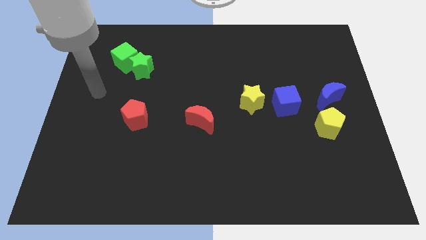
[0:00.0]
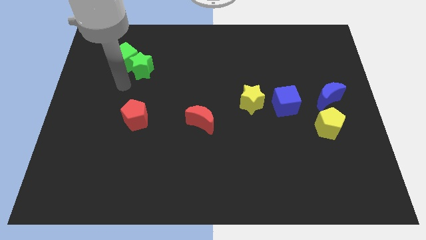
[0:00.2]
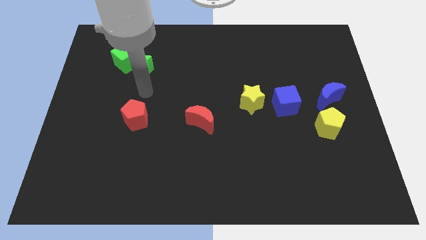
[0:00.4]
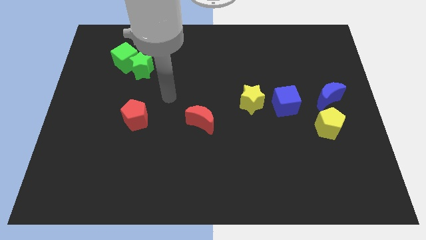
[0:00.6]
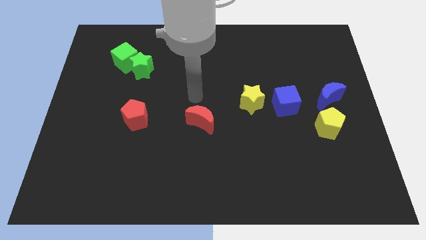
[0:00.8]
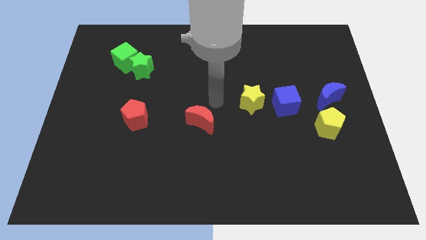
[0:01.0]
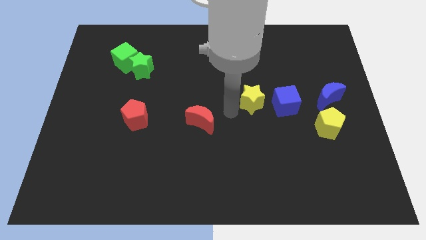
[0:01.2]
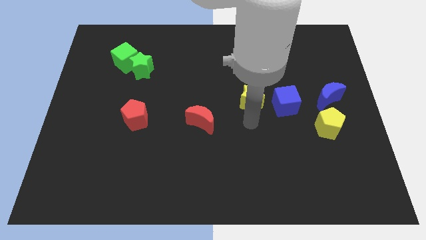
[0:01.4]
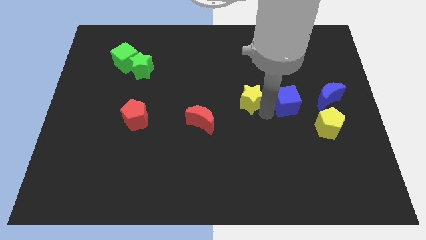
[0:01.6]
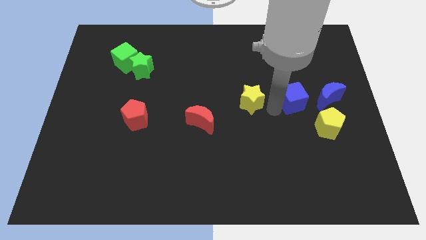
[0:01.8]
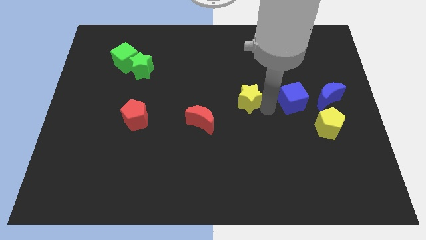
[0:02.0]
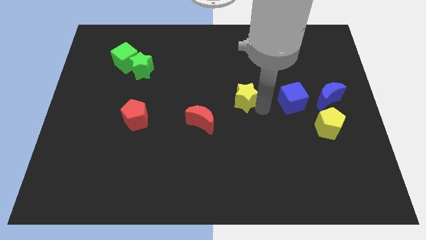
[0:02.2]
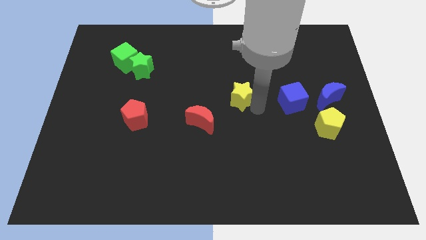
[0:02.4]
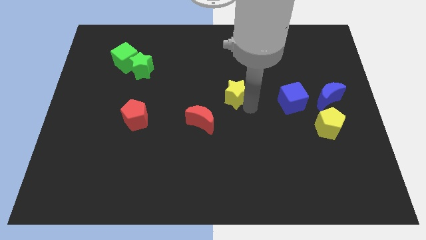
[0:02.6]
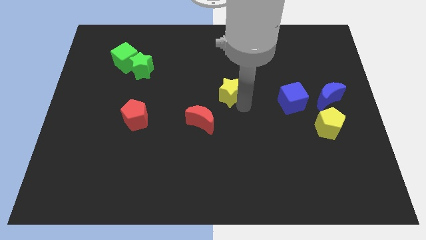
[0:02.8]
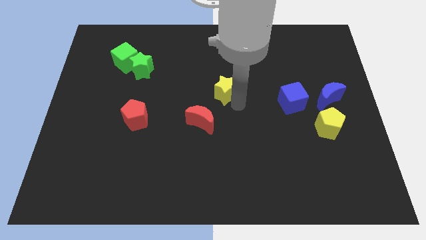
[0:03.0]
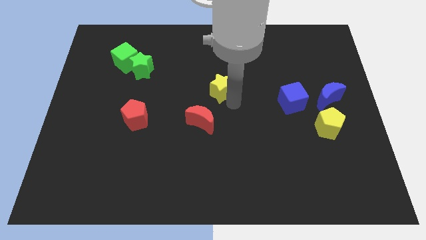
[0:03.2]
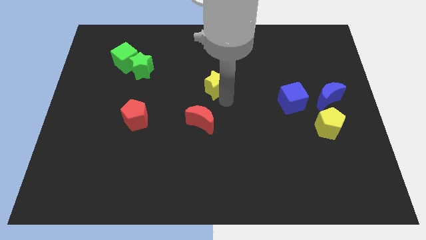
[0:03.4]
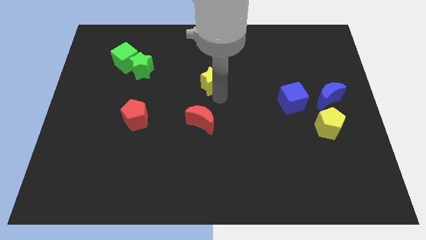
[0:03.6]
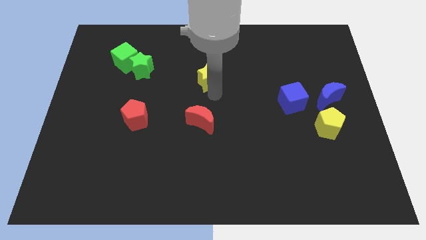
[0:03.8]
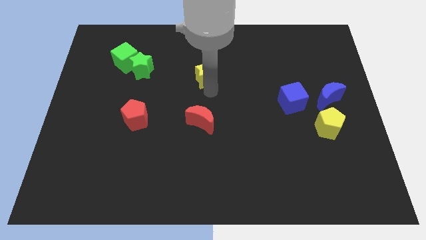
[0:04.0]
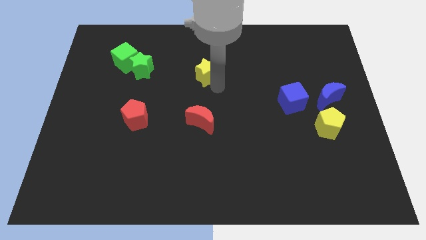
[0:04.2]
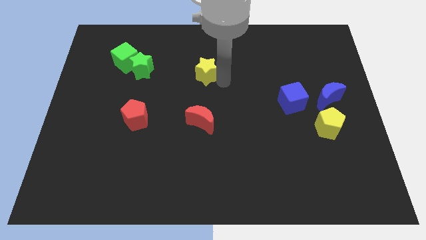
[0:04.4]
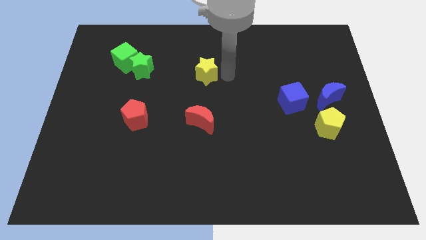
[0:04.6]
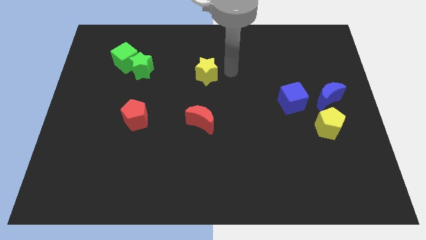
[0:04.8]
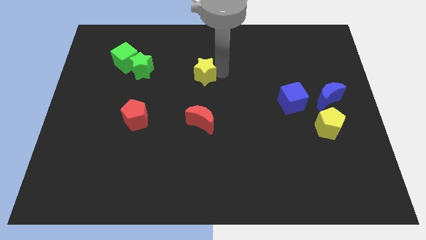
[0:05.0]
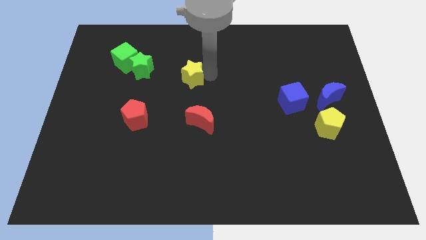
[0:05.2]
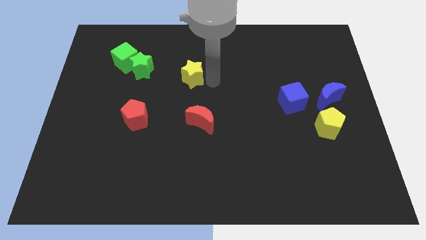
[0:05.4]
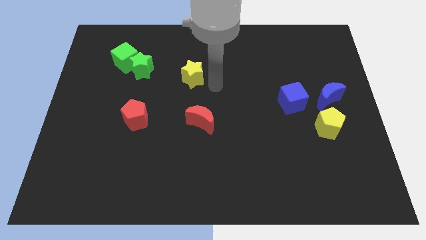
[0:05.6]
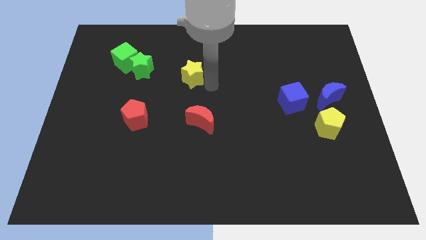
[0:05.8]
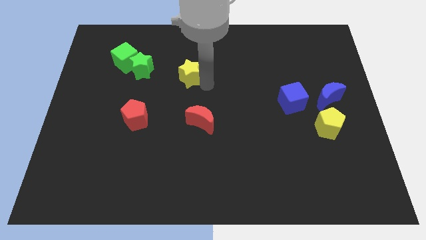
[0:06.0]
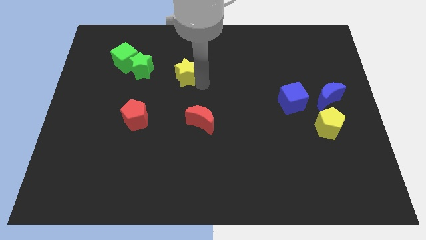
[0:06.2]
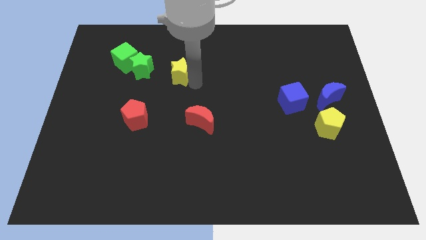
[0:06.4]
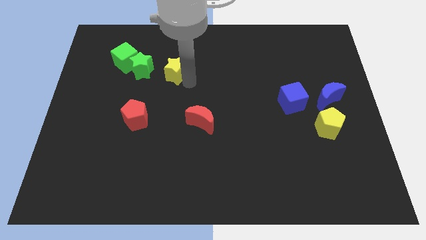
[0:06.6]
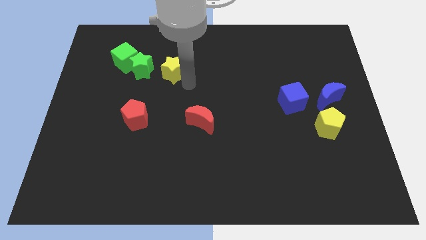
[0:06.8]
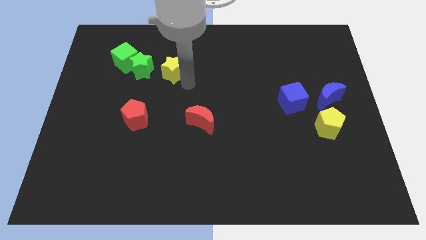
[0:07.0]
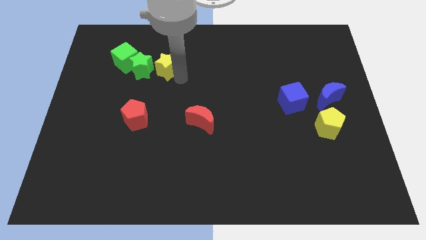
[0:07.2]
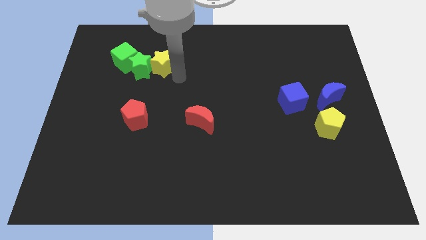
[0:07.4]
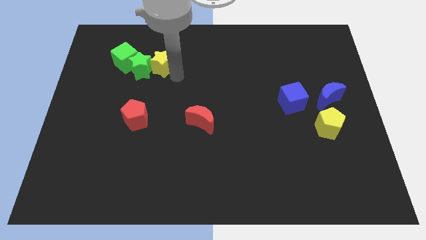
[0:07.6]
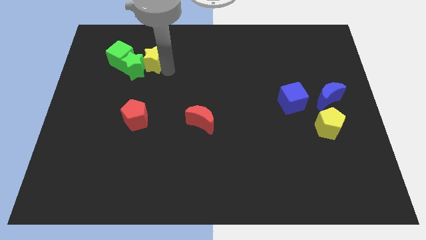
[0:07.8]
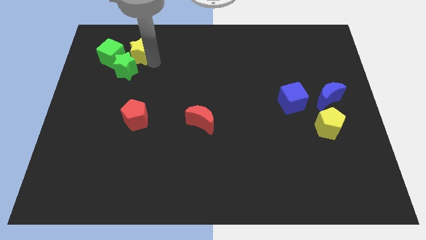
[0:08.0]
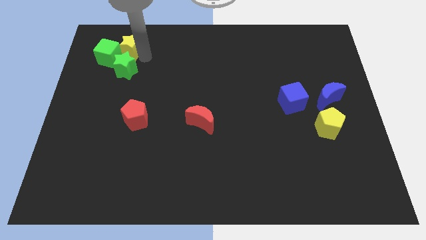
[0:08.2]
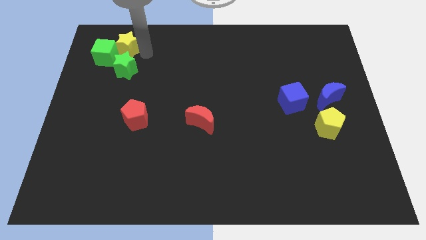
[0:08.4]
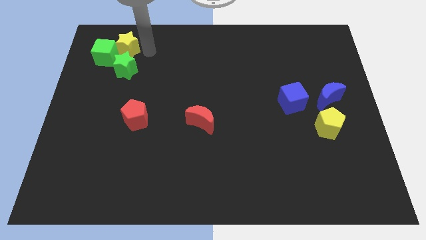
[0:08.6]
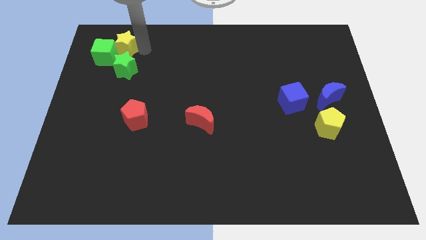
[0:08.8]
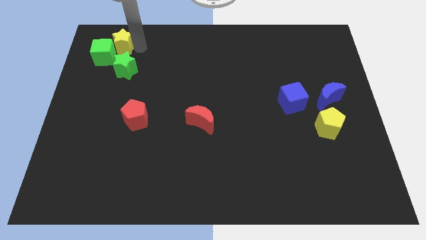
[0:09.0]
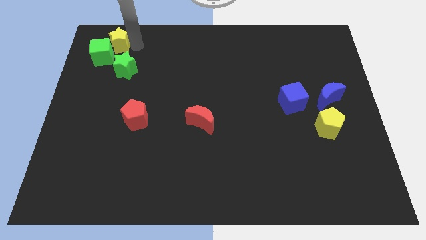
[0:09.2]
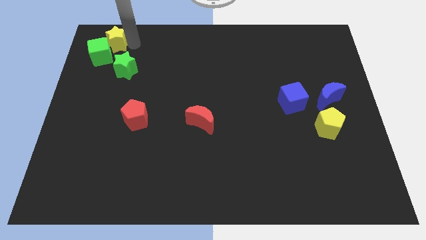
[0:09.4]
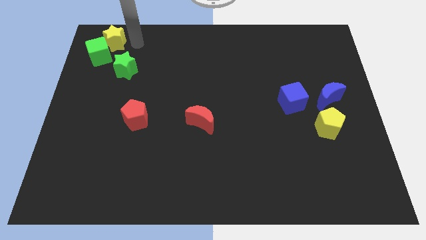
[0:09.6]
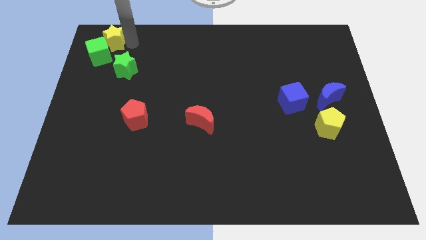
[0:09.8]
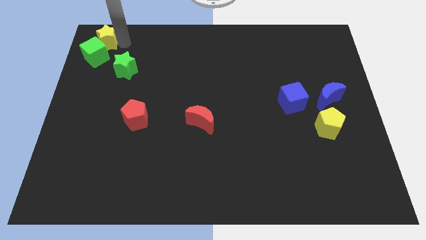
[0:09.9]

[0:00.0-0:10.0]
push the yellow star to the top left

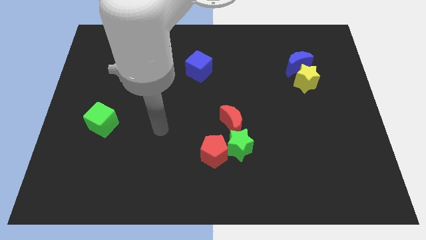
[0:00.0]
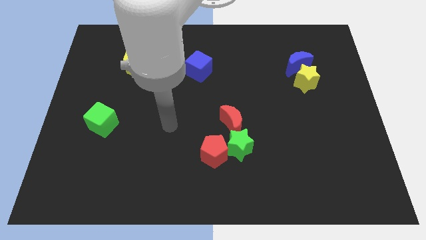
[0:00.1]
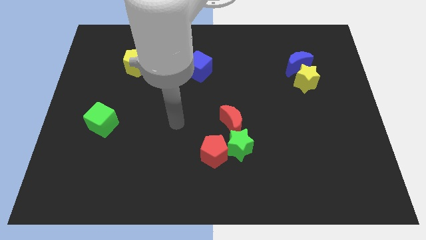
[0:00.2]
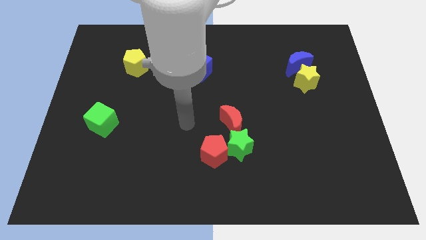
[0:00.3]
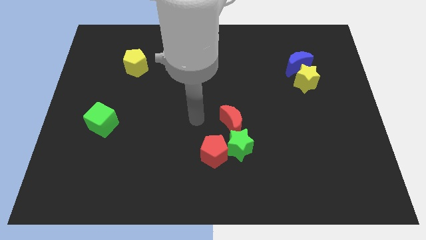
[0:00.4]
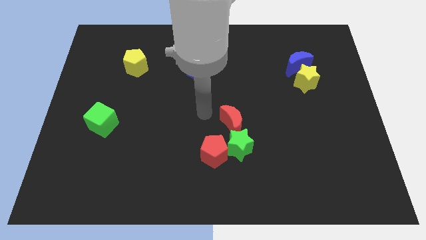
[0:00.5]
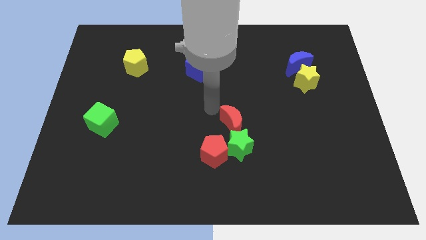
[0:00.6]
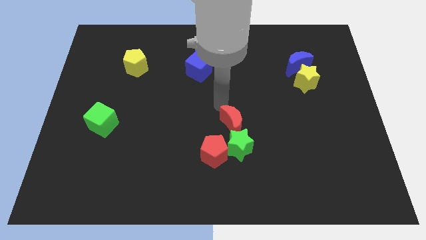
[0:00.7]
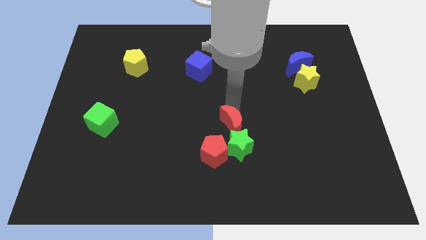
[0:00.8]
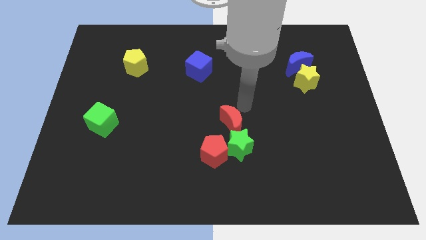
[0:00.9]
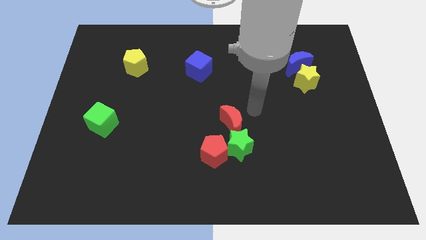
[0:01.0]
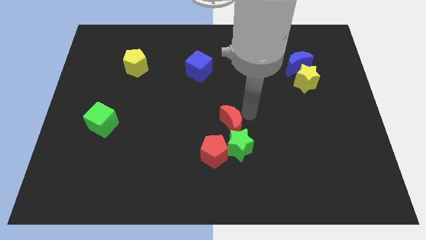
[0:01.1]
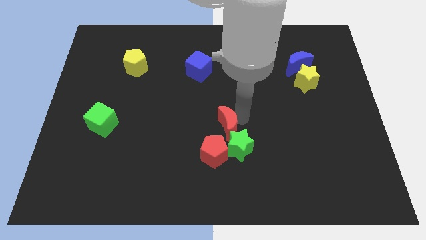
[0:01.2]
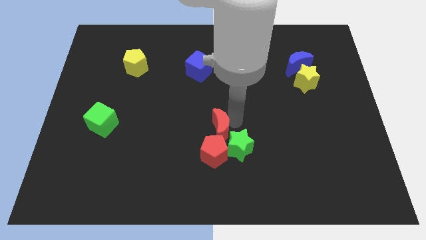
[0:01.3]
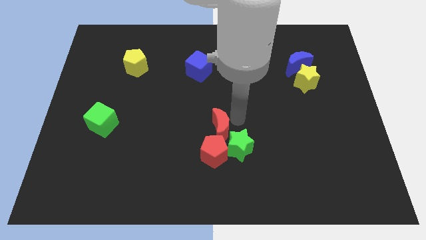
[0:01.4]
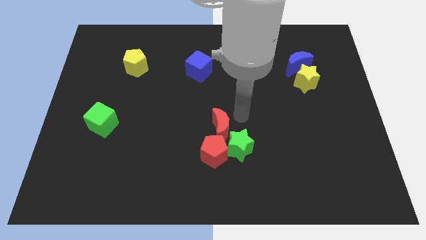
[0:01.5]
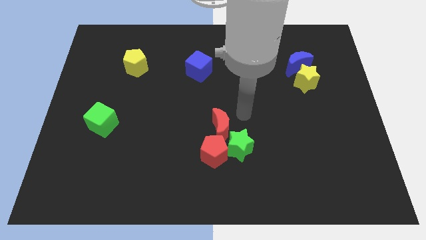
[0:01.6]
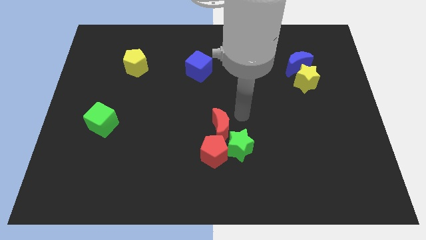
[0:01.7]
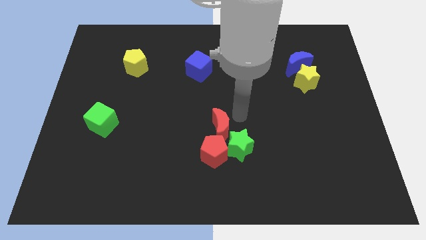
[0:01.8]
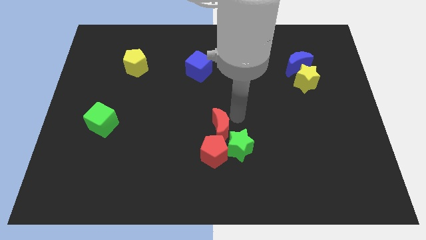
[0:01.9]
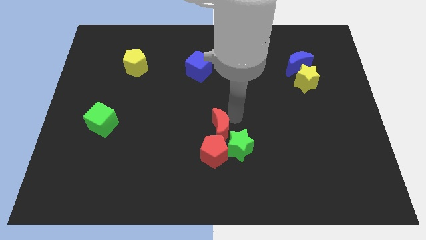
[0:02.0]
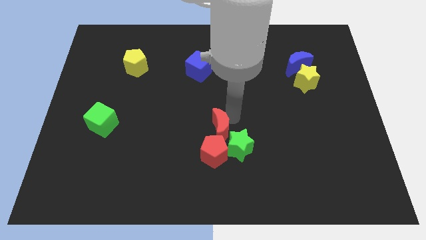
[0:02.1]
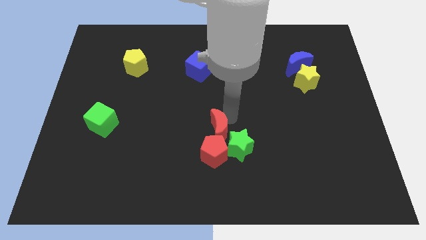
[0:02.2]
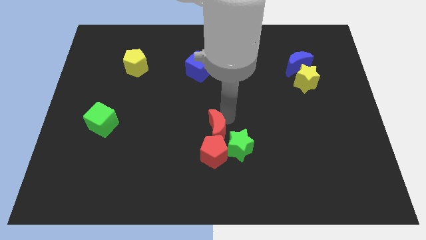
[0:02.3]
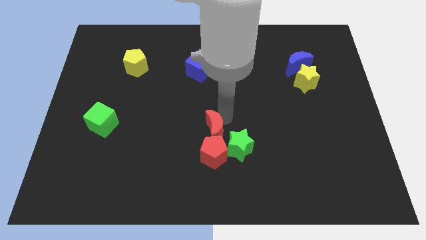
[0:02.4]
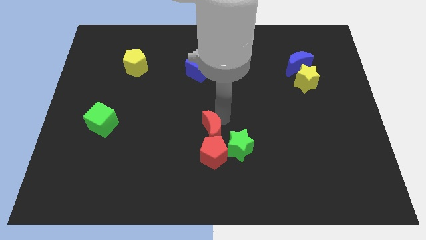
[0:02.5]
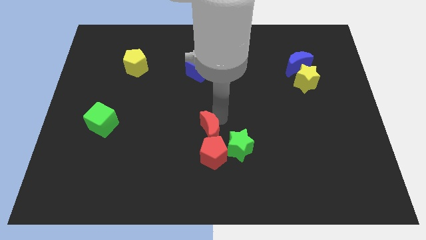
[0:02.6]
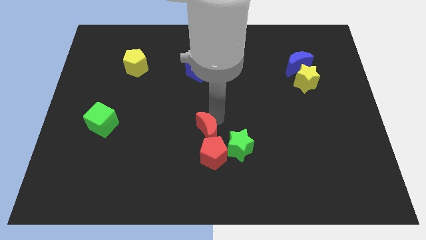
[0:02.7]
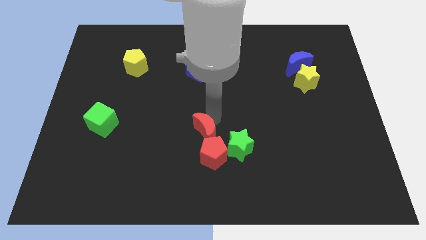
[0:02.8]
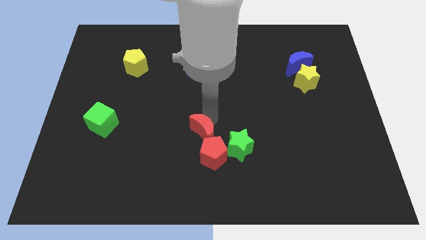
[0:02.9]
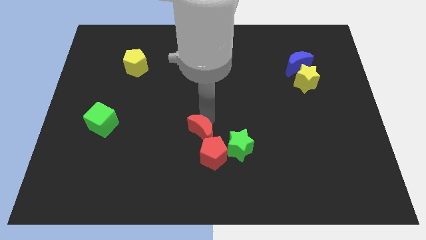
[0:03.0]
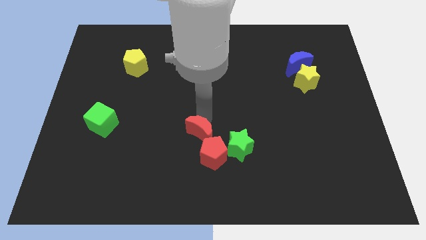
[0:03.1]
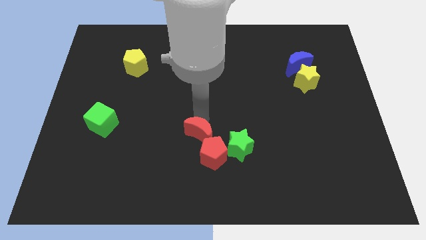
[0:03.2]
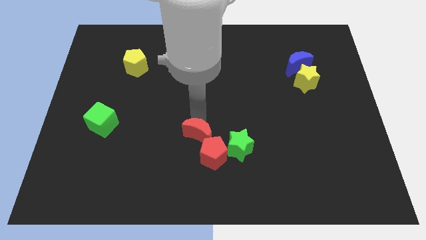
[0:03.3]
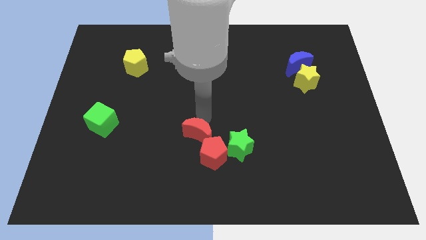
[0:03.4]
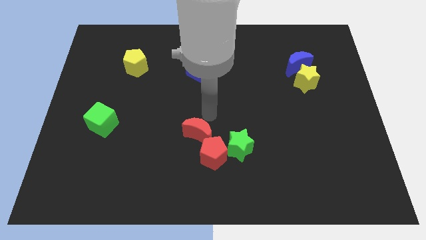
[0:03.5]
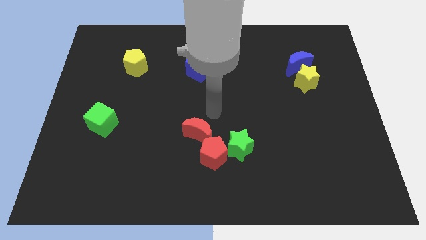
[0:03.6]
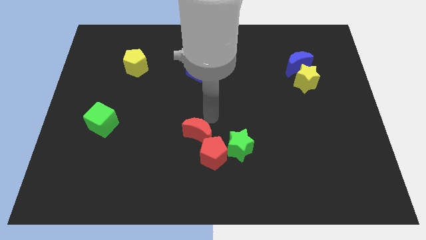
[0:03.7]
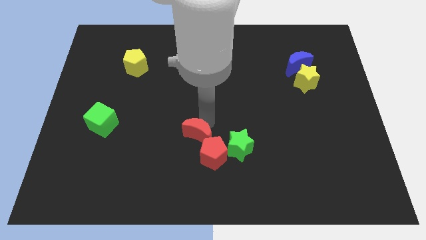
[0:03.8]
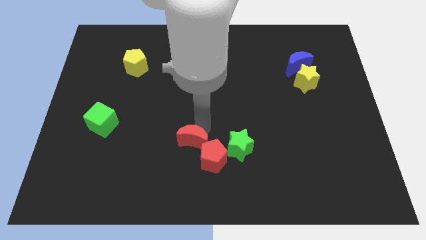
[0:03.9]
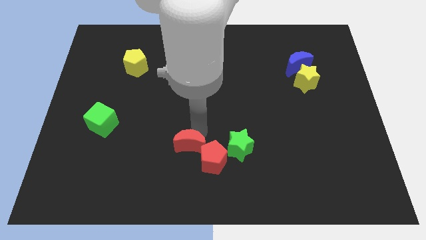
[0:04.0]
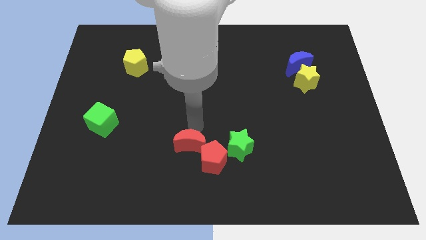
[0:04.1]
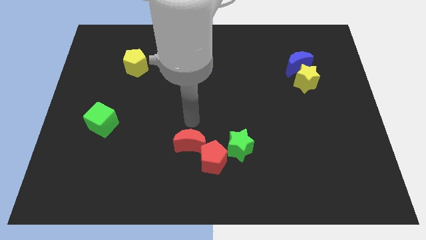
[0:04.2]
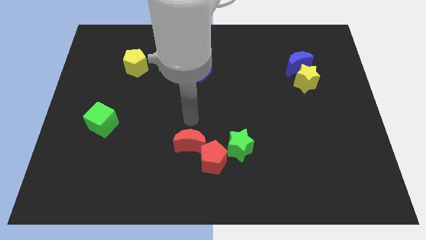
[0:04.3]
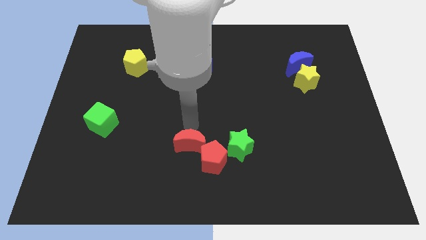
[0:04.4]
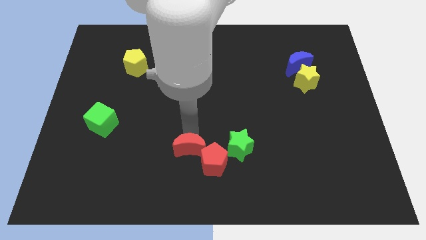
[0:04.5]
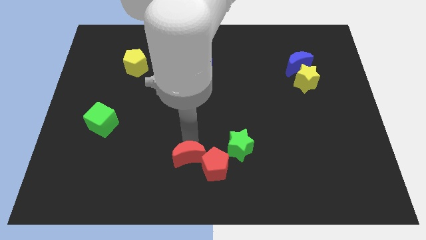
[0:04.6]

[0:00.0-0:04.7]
slide the red moon to the bottom side
